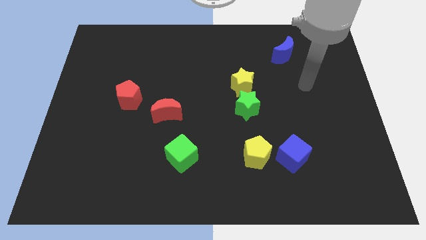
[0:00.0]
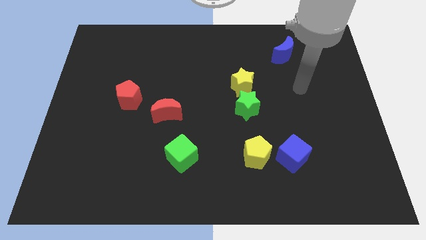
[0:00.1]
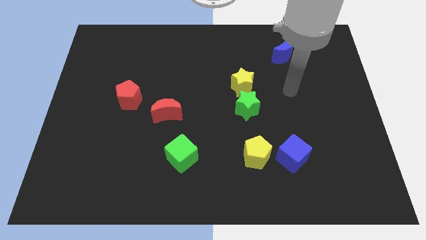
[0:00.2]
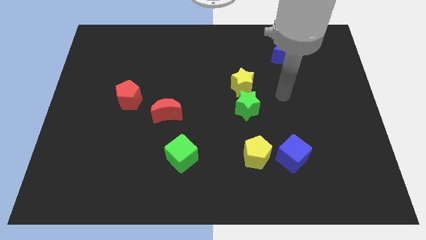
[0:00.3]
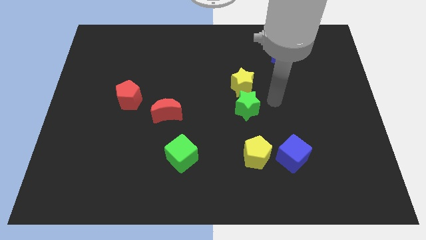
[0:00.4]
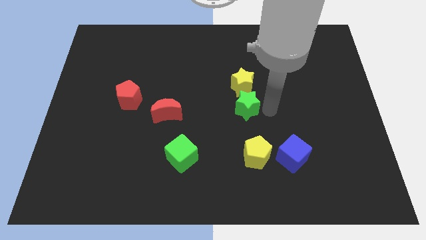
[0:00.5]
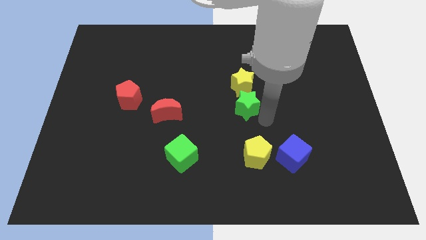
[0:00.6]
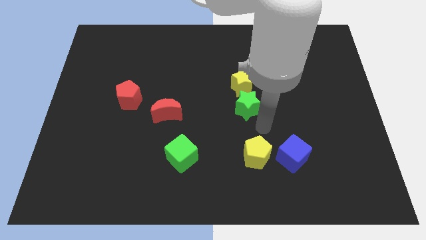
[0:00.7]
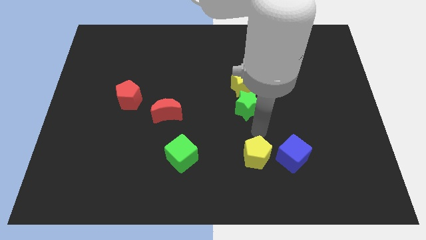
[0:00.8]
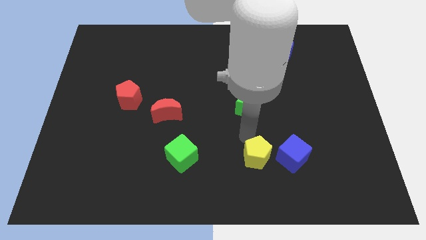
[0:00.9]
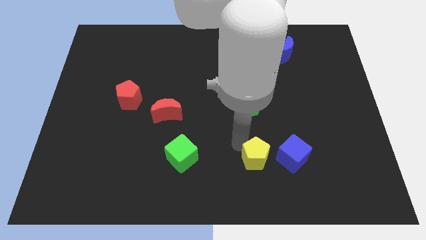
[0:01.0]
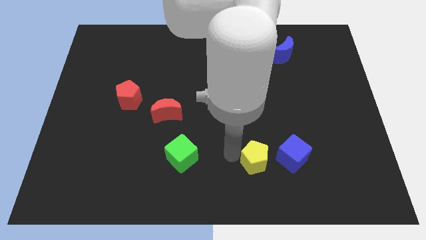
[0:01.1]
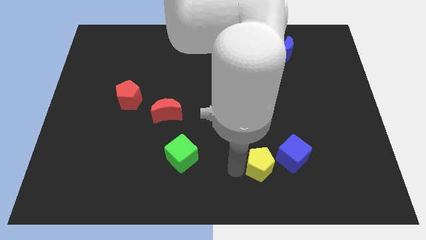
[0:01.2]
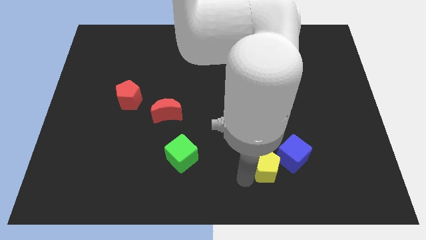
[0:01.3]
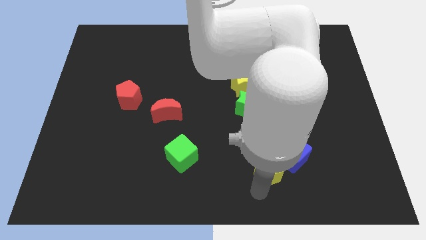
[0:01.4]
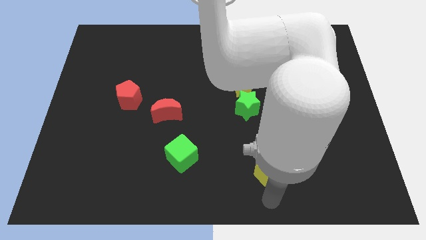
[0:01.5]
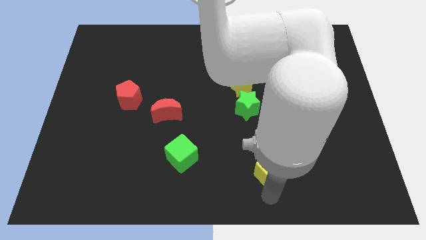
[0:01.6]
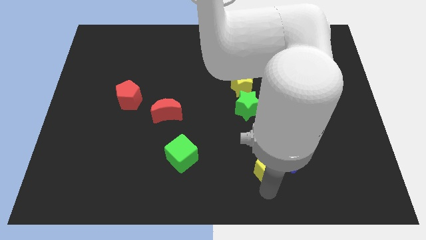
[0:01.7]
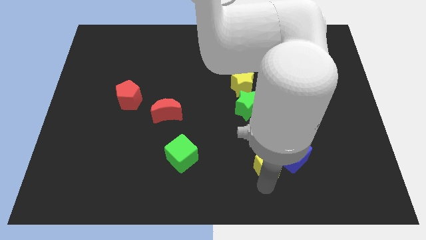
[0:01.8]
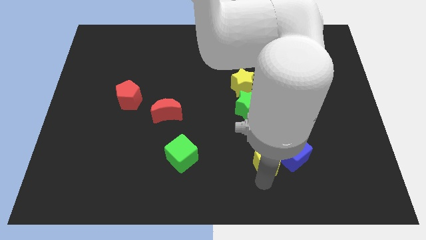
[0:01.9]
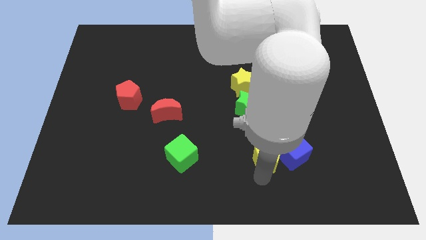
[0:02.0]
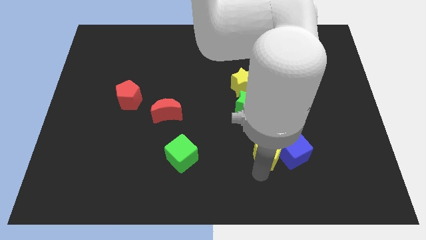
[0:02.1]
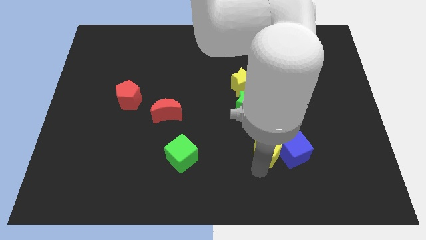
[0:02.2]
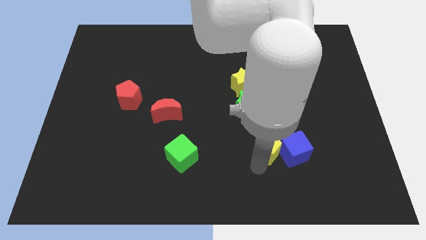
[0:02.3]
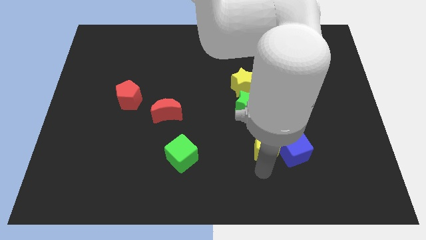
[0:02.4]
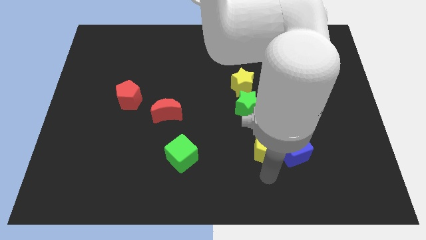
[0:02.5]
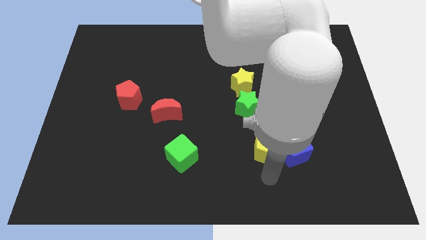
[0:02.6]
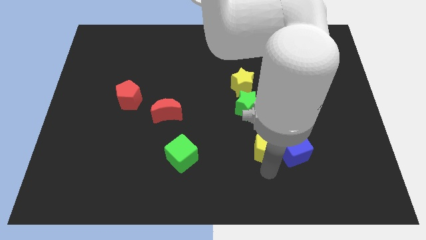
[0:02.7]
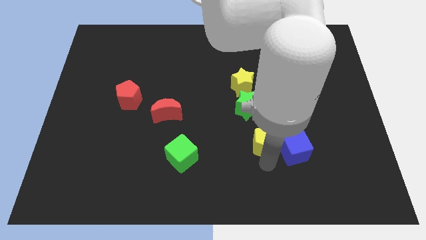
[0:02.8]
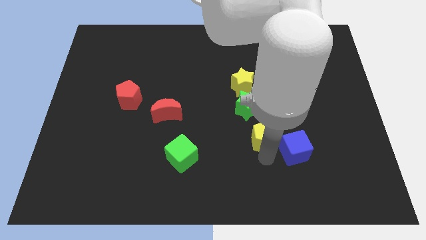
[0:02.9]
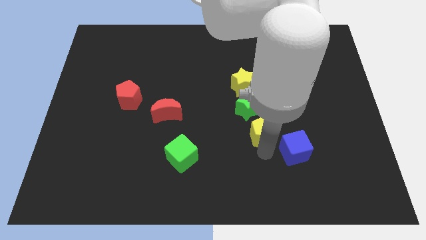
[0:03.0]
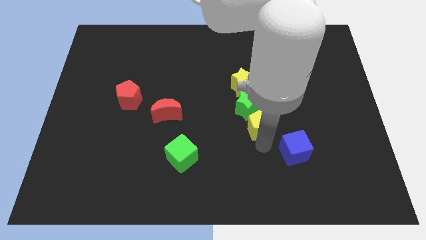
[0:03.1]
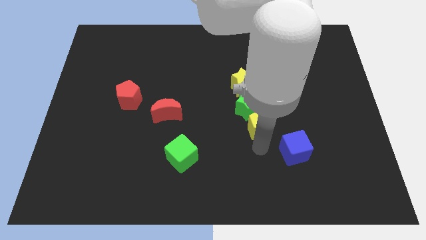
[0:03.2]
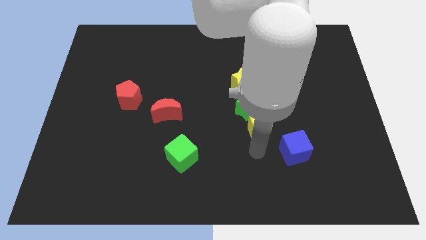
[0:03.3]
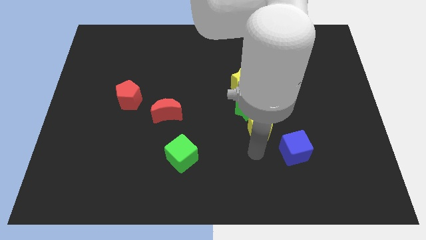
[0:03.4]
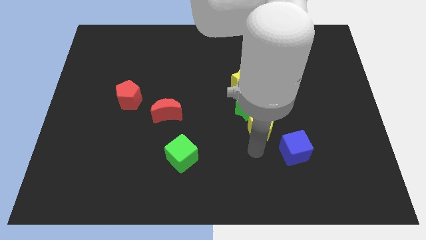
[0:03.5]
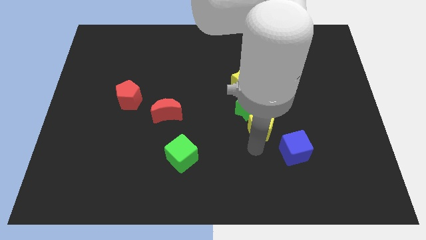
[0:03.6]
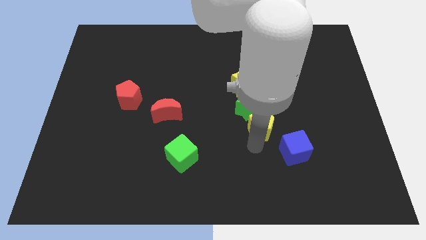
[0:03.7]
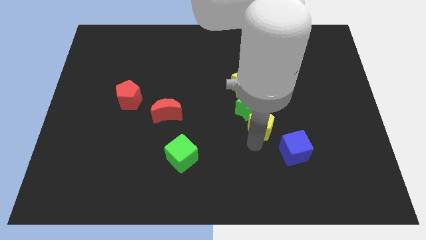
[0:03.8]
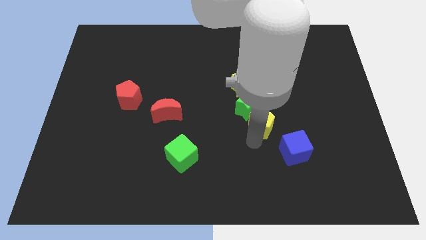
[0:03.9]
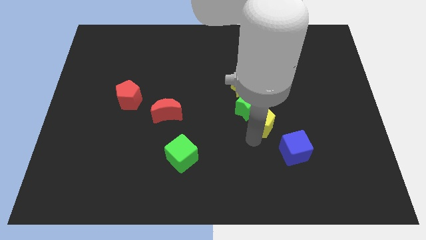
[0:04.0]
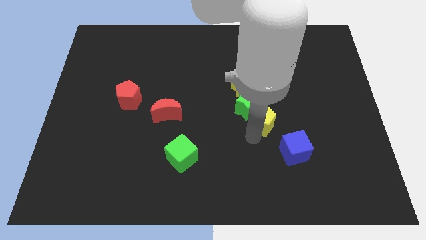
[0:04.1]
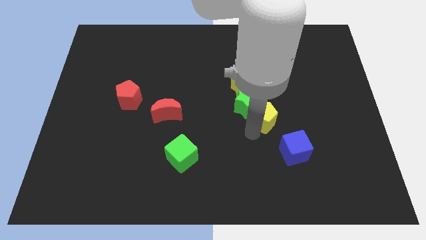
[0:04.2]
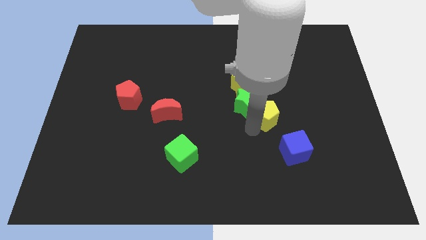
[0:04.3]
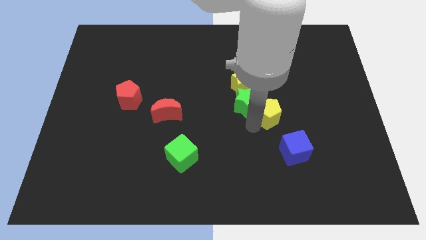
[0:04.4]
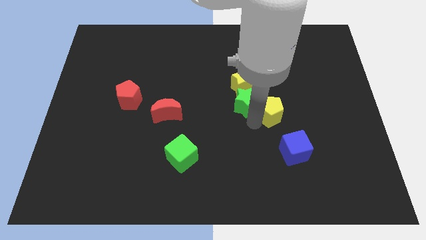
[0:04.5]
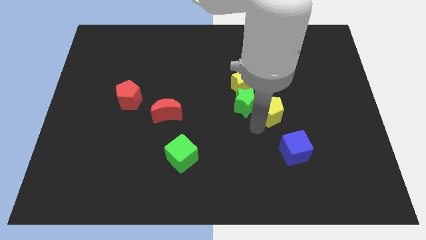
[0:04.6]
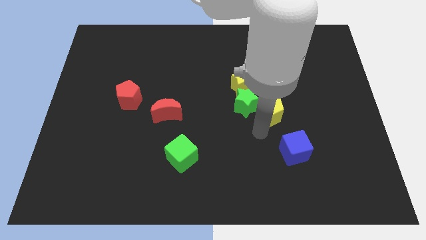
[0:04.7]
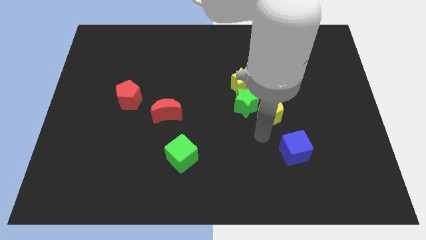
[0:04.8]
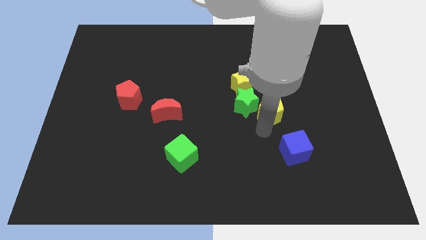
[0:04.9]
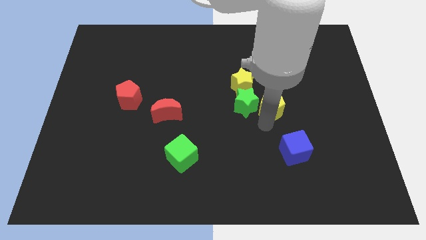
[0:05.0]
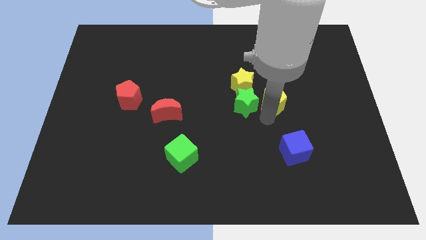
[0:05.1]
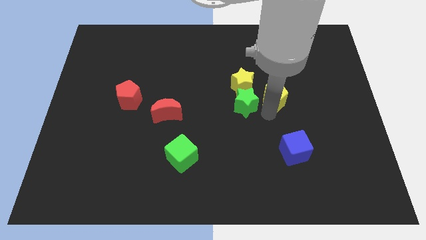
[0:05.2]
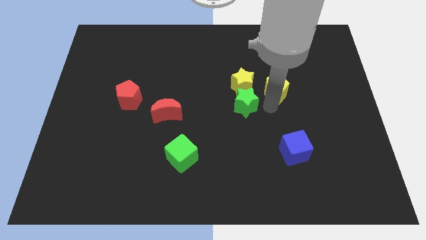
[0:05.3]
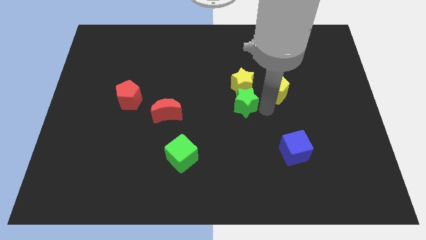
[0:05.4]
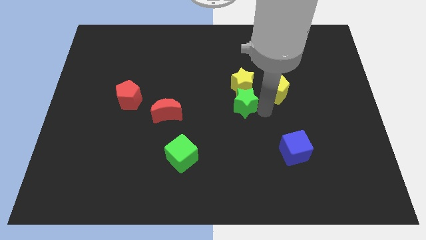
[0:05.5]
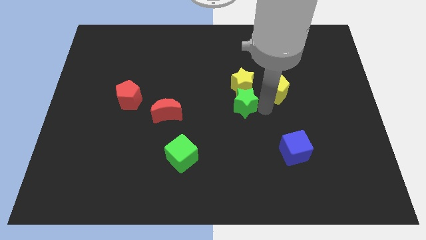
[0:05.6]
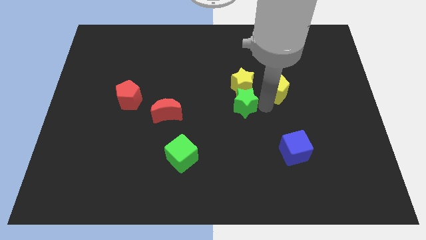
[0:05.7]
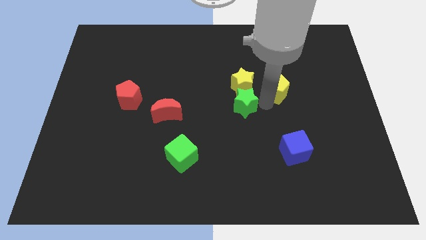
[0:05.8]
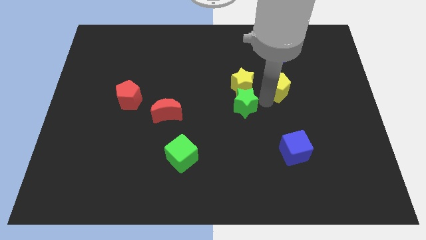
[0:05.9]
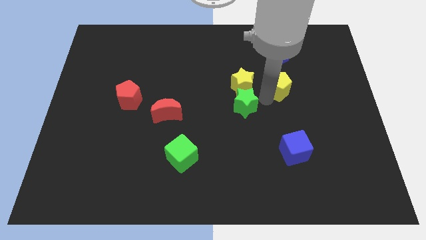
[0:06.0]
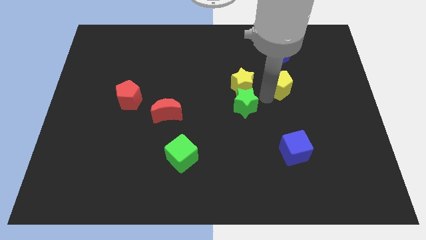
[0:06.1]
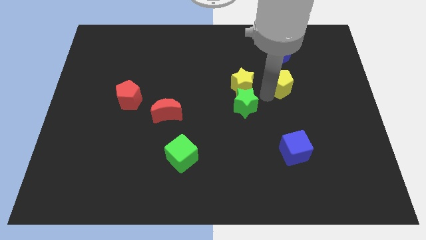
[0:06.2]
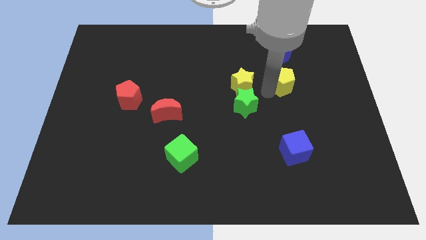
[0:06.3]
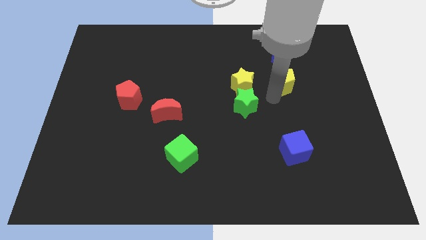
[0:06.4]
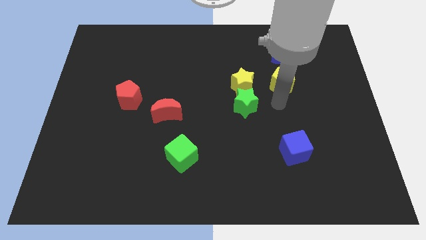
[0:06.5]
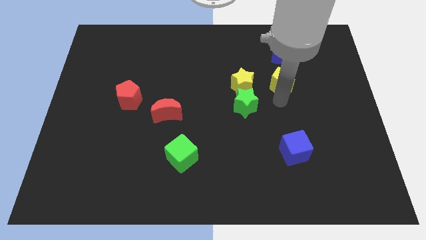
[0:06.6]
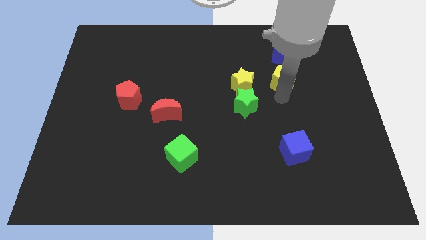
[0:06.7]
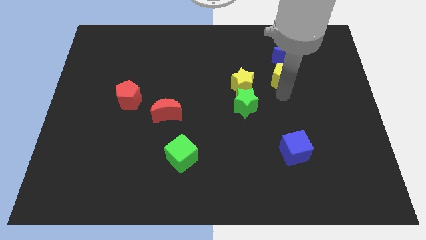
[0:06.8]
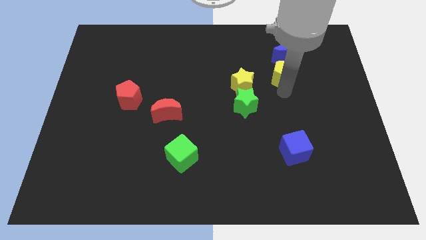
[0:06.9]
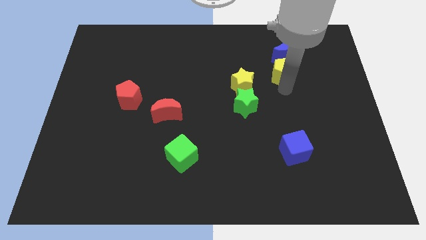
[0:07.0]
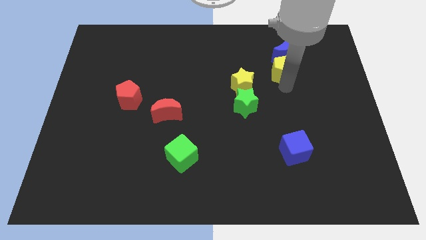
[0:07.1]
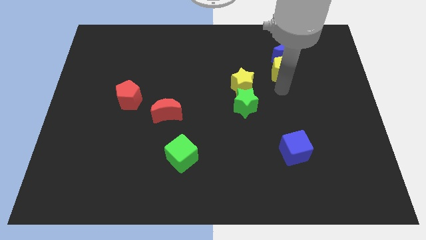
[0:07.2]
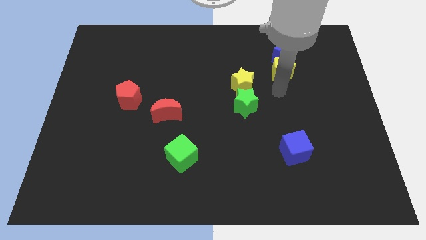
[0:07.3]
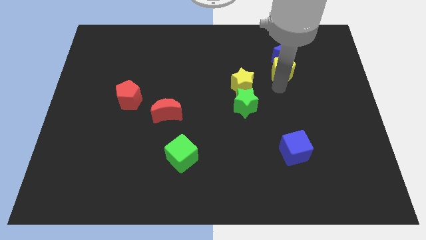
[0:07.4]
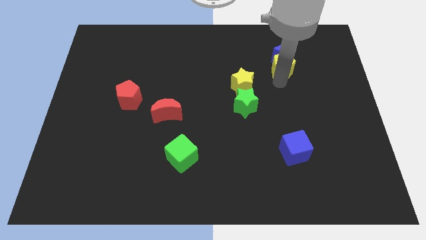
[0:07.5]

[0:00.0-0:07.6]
slide the yellow pentagon close to the blue moon

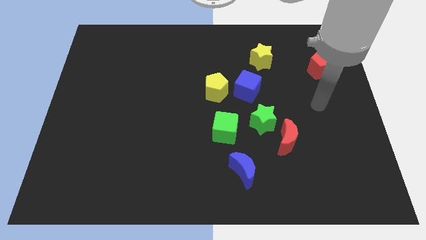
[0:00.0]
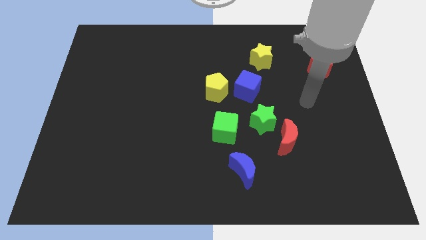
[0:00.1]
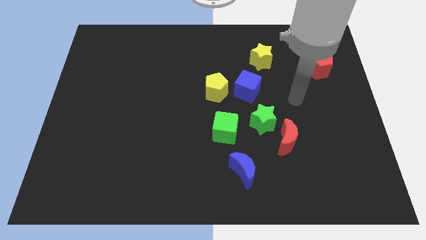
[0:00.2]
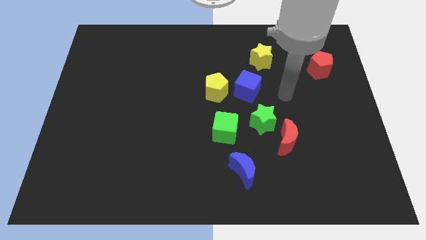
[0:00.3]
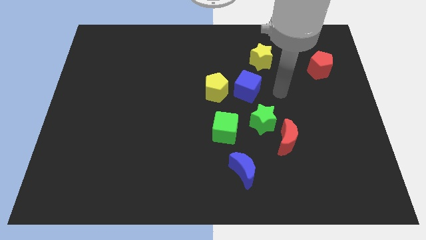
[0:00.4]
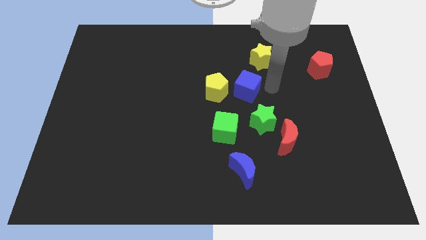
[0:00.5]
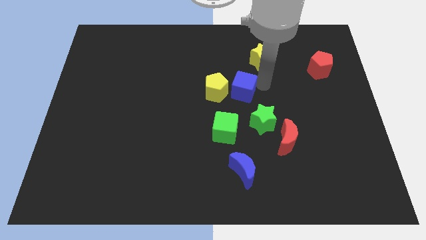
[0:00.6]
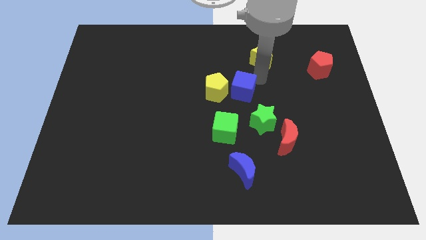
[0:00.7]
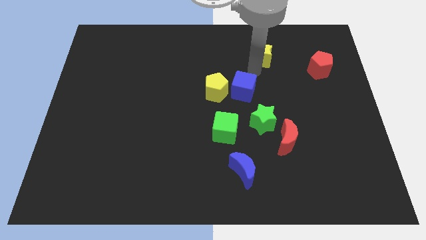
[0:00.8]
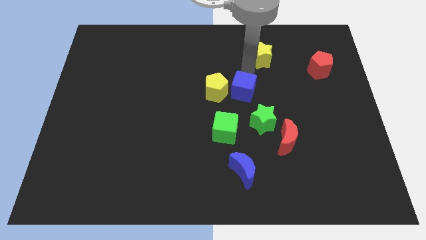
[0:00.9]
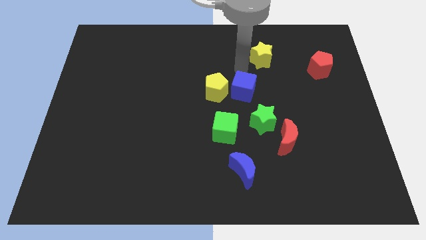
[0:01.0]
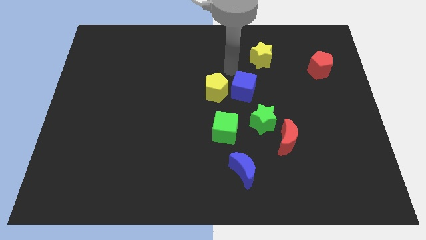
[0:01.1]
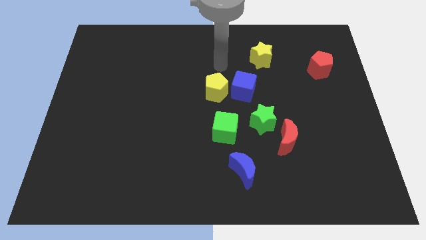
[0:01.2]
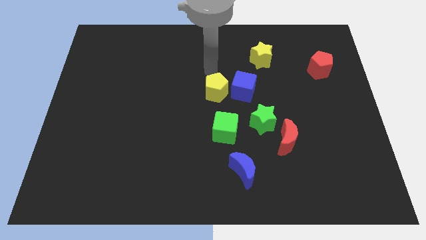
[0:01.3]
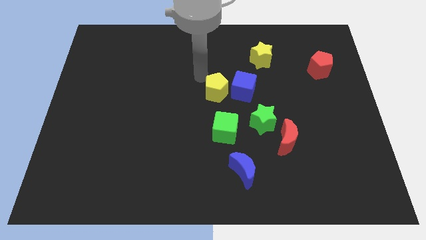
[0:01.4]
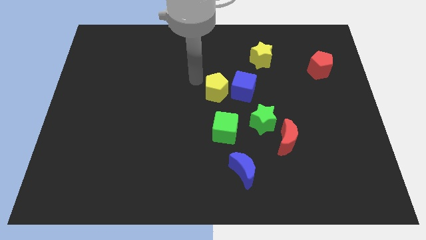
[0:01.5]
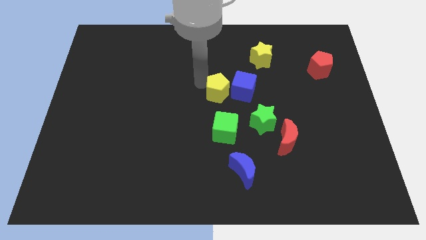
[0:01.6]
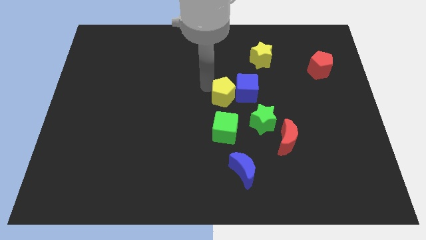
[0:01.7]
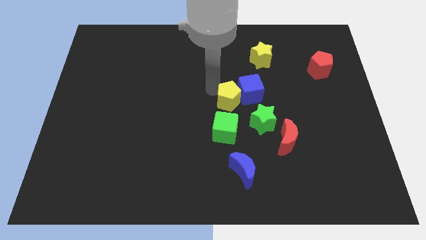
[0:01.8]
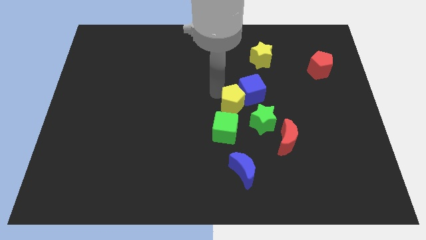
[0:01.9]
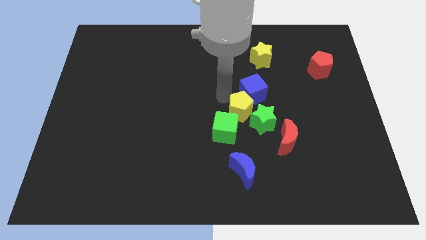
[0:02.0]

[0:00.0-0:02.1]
slide the yellow pentagon next to the green star
